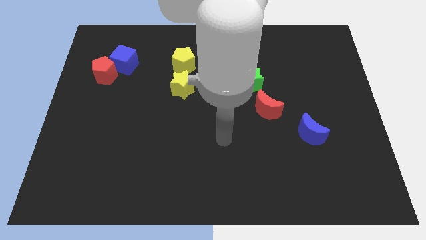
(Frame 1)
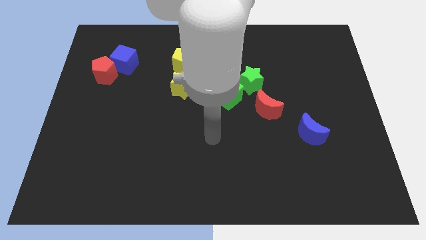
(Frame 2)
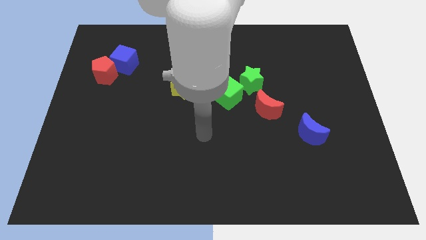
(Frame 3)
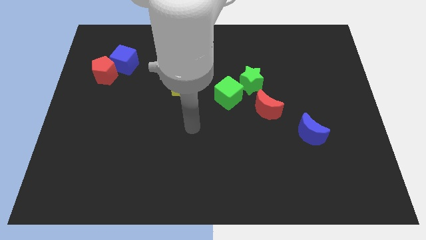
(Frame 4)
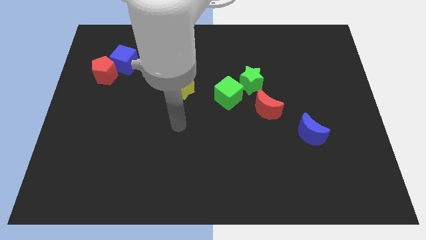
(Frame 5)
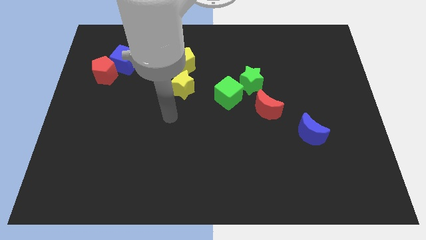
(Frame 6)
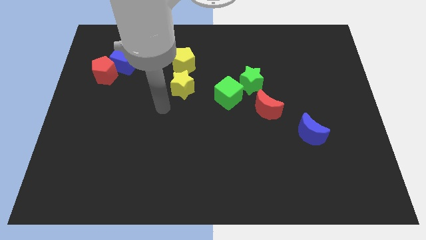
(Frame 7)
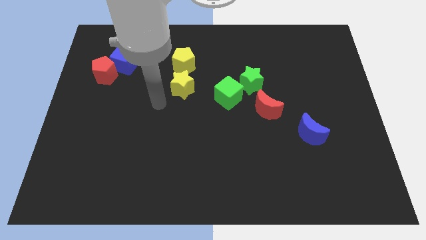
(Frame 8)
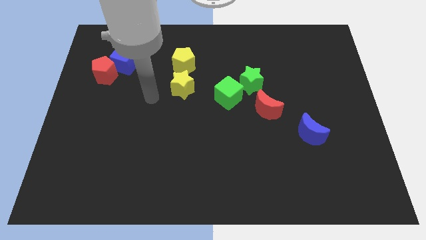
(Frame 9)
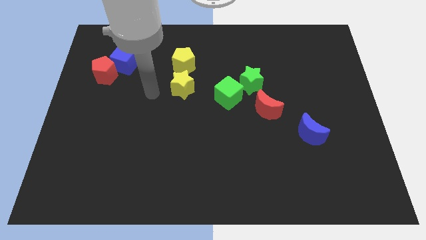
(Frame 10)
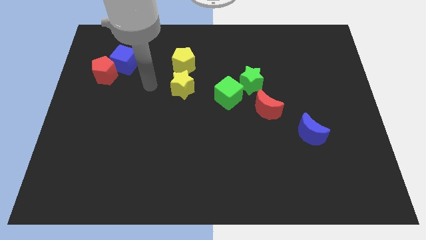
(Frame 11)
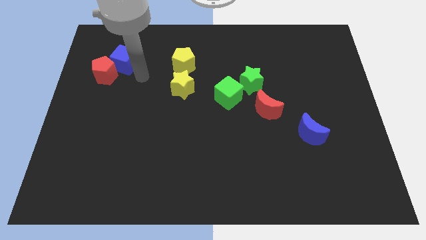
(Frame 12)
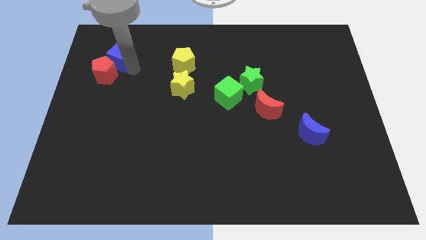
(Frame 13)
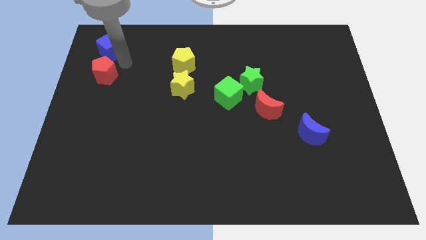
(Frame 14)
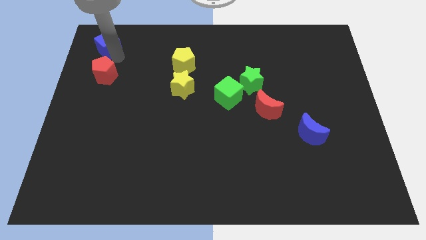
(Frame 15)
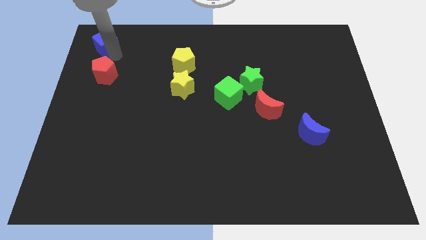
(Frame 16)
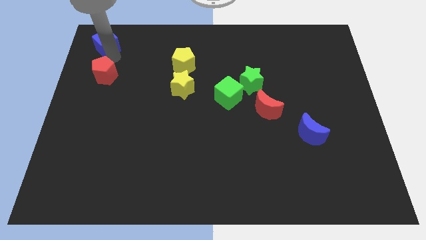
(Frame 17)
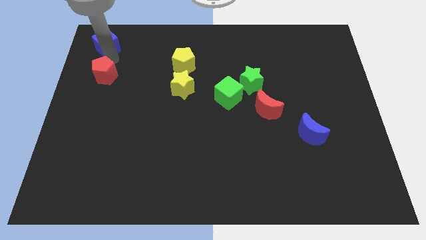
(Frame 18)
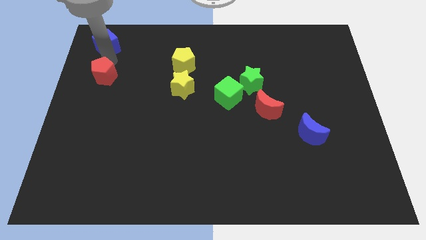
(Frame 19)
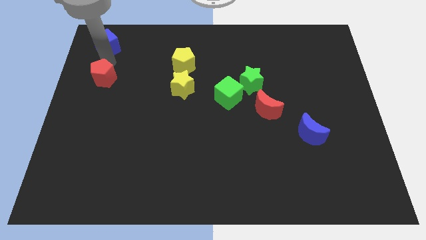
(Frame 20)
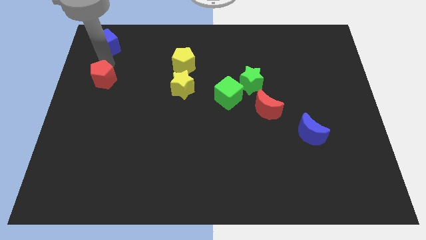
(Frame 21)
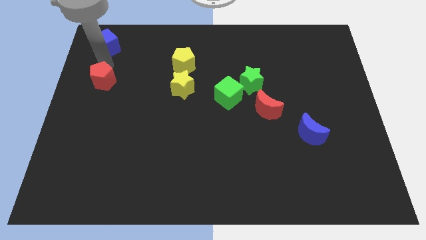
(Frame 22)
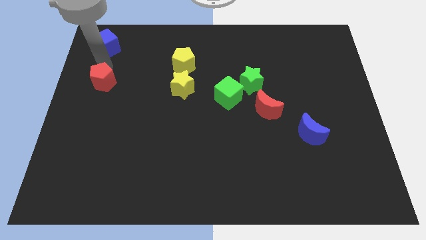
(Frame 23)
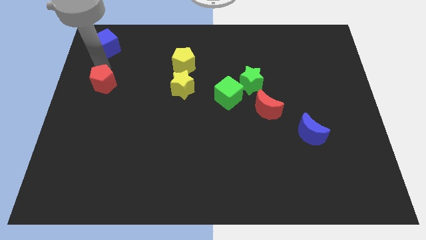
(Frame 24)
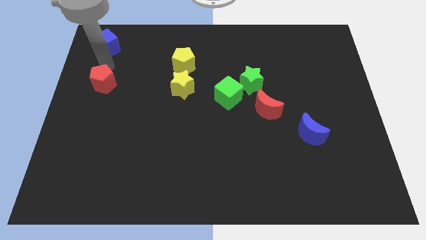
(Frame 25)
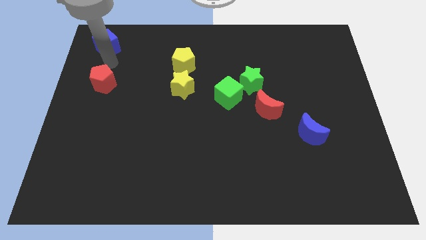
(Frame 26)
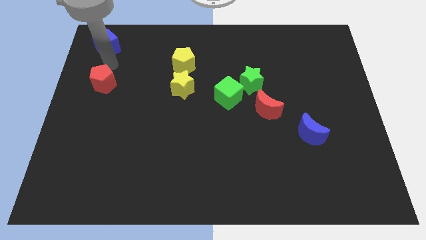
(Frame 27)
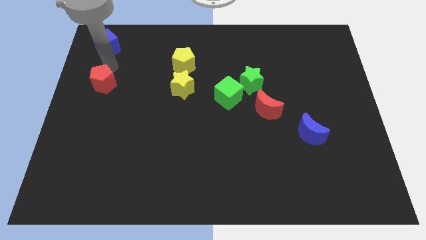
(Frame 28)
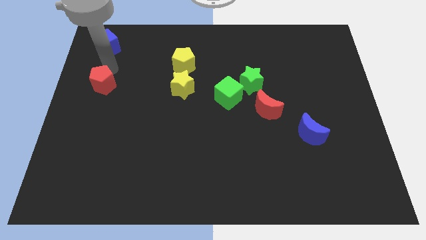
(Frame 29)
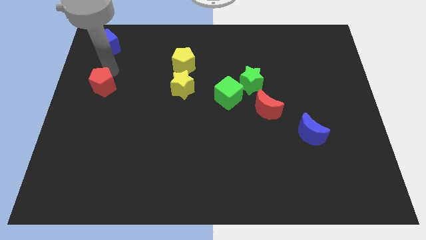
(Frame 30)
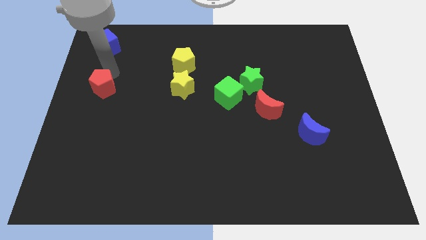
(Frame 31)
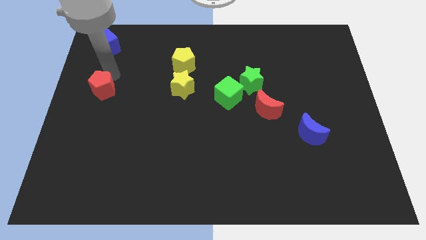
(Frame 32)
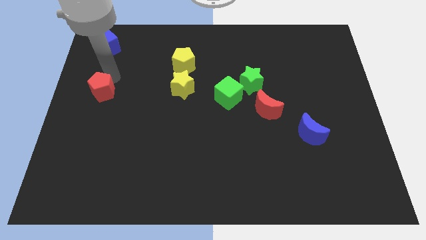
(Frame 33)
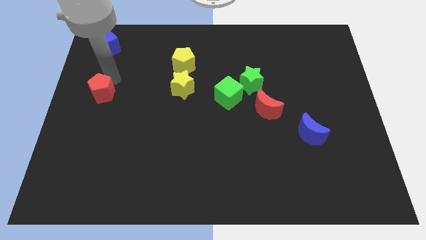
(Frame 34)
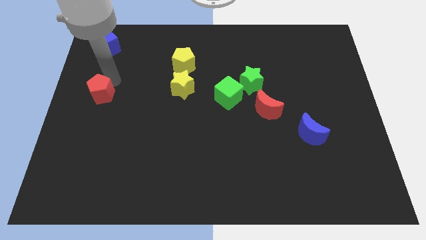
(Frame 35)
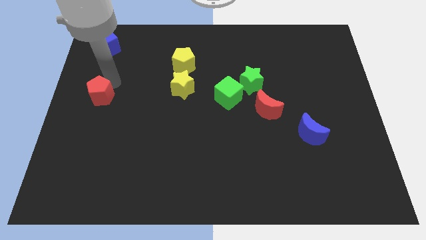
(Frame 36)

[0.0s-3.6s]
push the red pentagon down somewhat

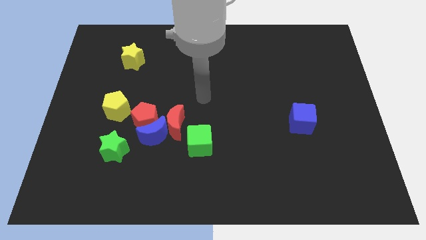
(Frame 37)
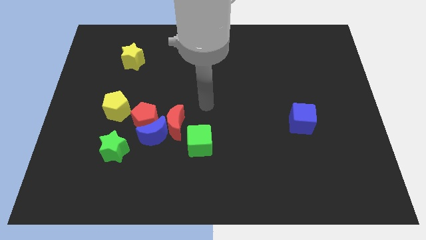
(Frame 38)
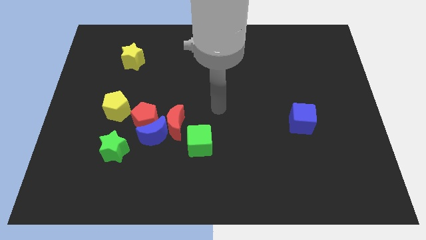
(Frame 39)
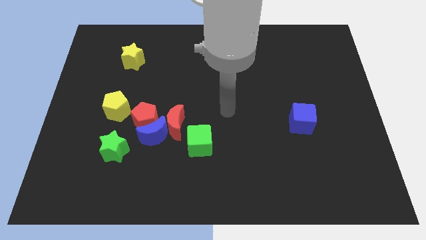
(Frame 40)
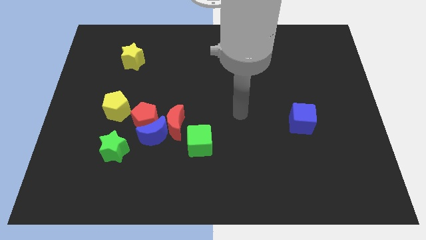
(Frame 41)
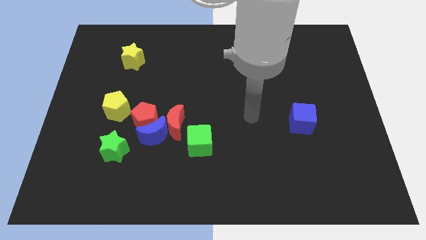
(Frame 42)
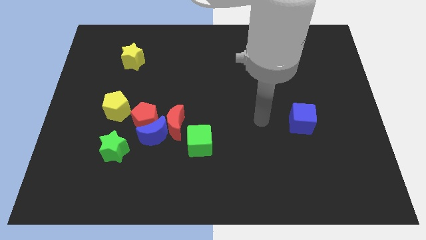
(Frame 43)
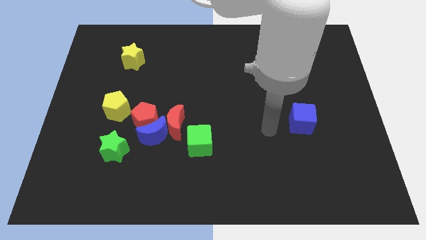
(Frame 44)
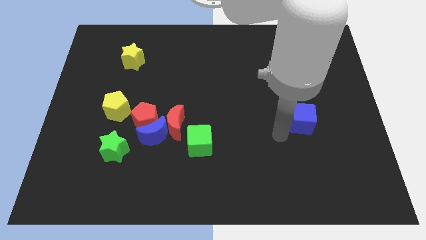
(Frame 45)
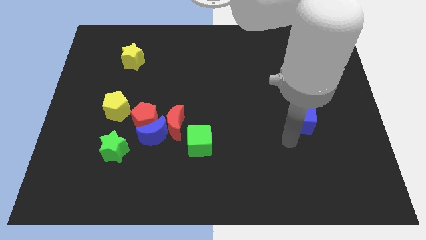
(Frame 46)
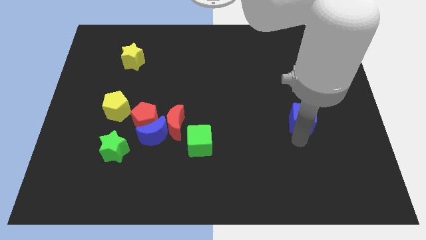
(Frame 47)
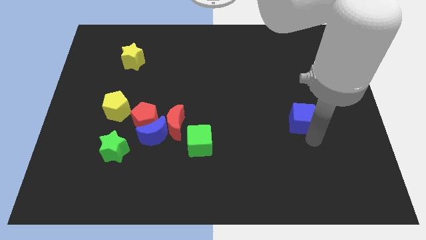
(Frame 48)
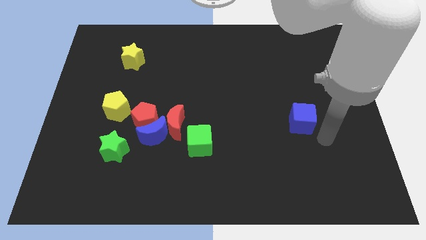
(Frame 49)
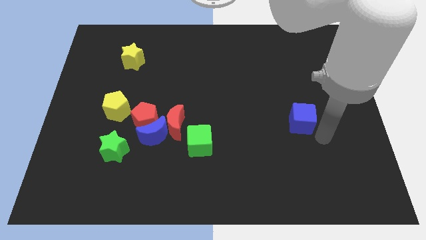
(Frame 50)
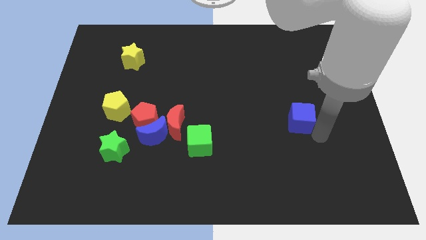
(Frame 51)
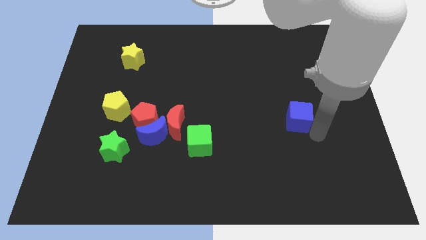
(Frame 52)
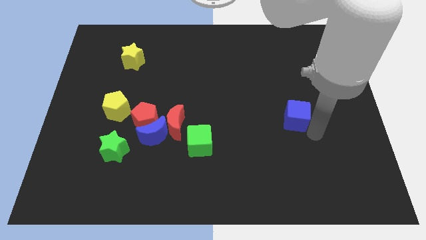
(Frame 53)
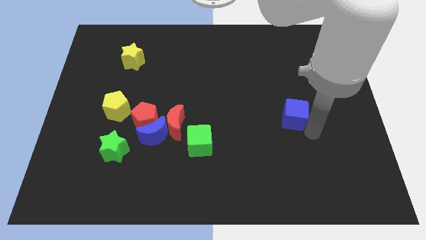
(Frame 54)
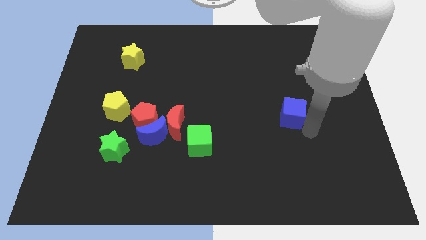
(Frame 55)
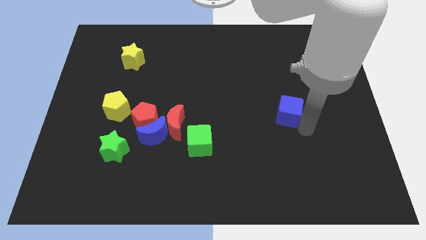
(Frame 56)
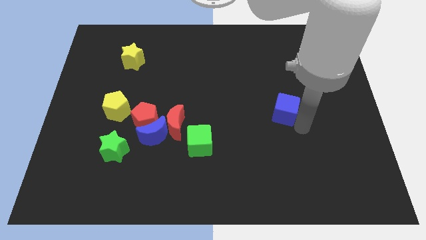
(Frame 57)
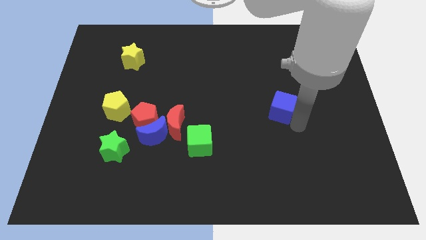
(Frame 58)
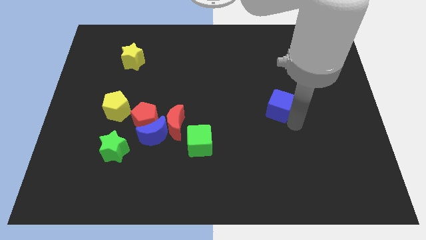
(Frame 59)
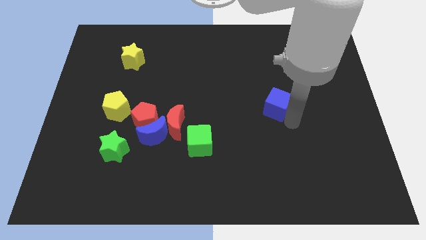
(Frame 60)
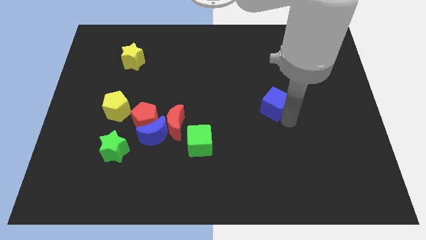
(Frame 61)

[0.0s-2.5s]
slide the blue cube a bit diagonally up and left

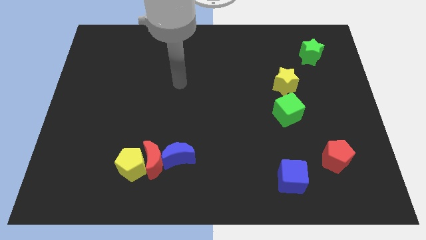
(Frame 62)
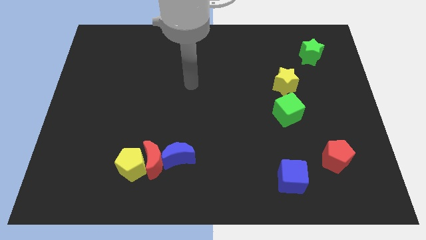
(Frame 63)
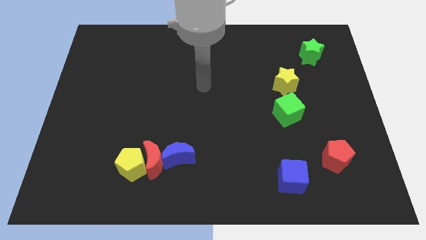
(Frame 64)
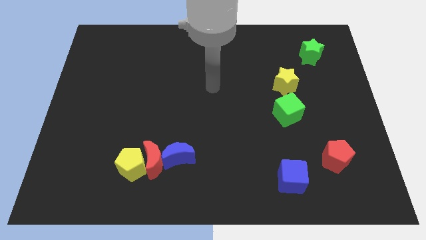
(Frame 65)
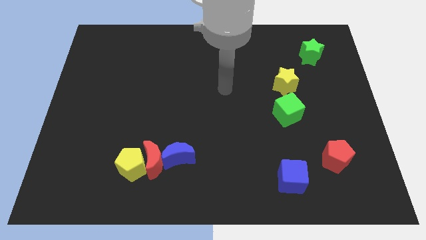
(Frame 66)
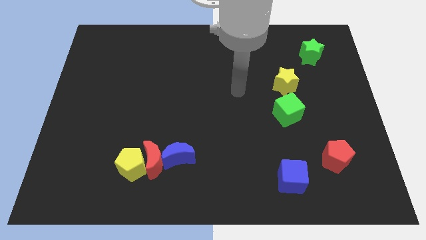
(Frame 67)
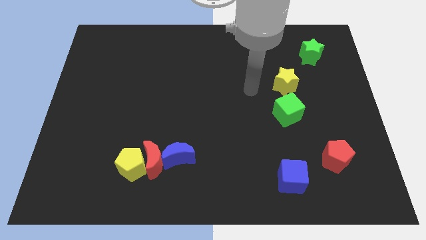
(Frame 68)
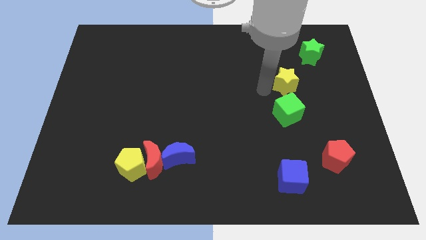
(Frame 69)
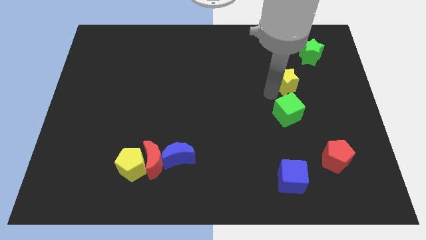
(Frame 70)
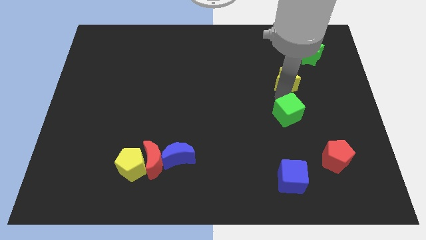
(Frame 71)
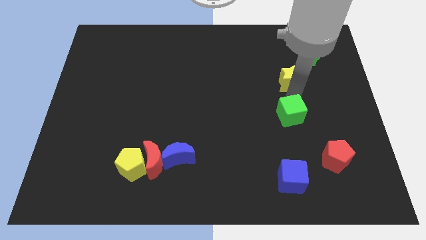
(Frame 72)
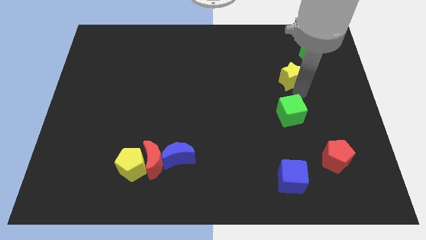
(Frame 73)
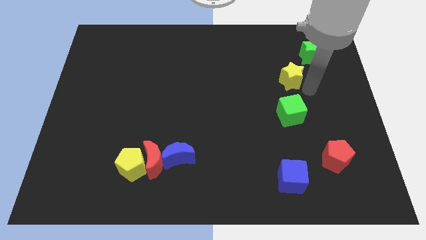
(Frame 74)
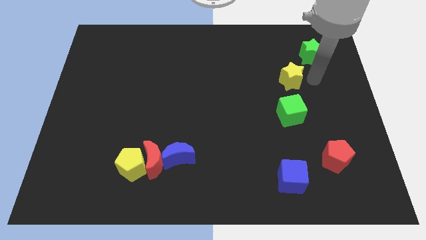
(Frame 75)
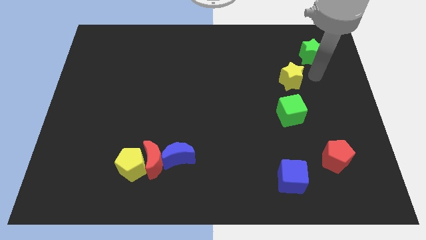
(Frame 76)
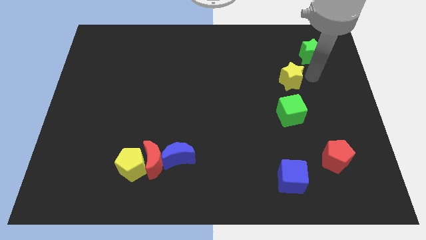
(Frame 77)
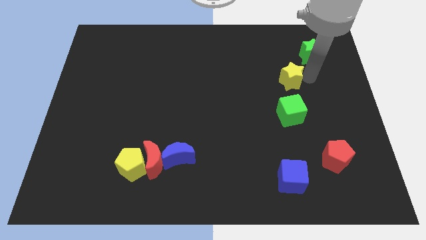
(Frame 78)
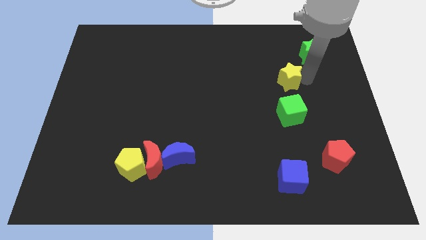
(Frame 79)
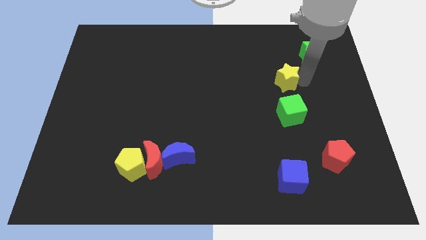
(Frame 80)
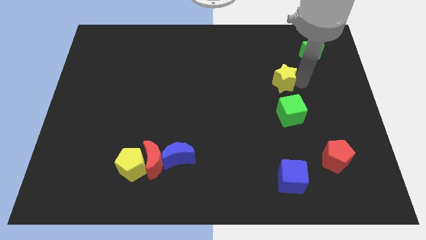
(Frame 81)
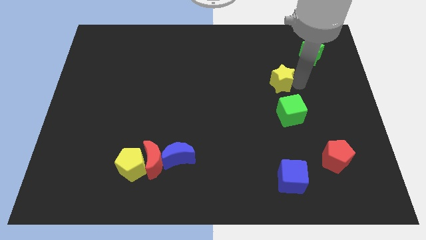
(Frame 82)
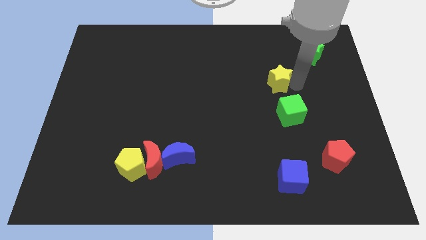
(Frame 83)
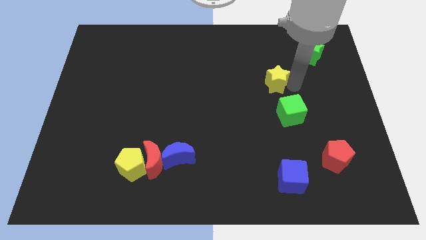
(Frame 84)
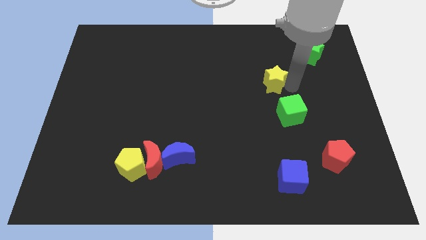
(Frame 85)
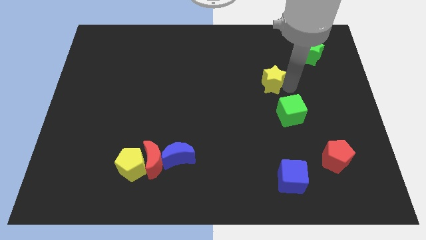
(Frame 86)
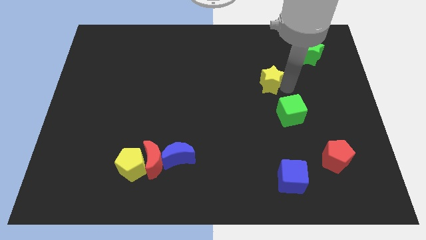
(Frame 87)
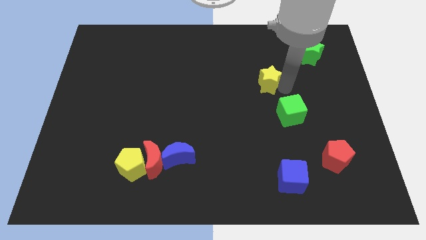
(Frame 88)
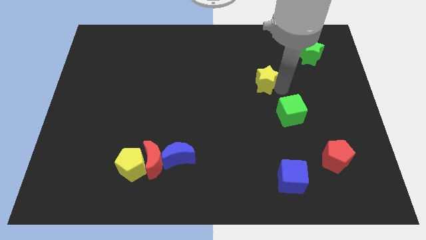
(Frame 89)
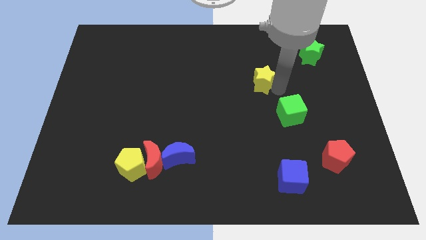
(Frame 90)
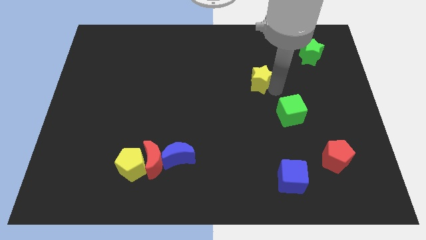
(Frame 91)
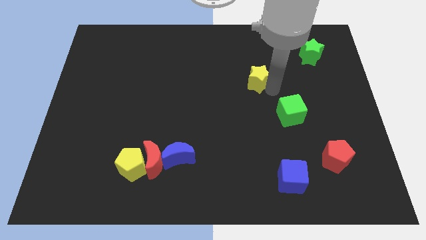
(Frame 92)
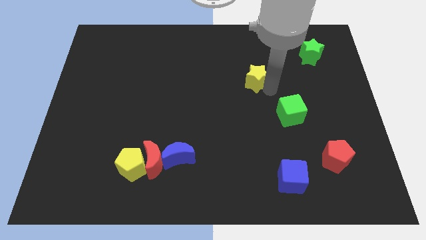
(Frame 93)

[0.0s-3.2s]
slightly push the yellow star left
